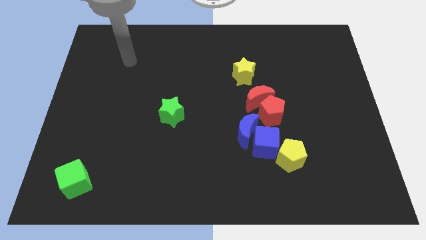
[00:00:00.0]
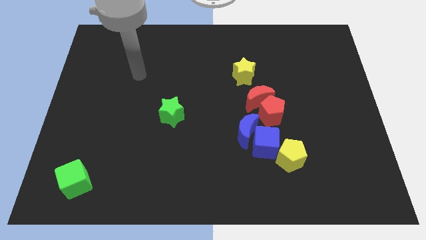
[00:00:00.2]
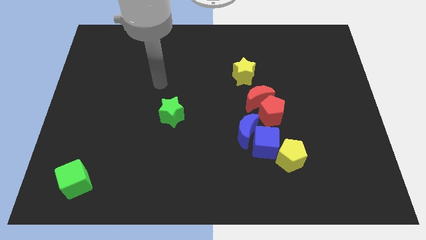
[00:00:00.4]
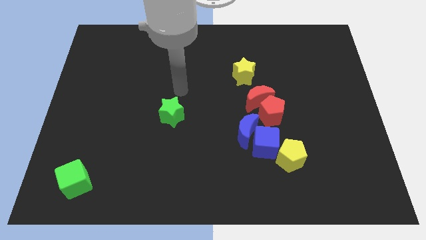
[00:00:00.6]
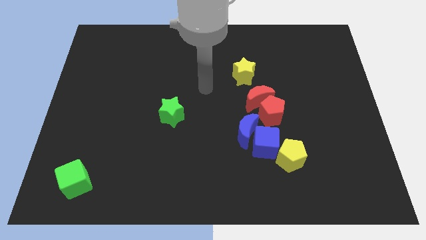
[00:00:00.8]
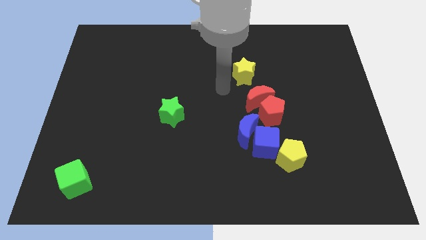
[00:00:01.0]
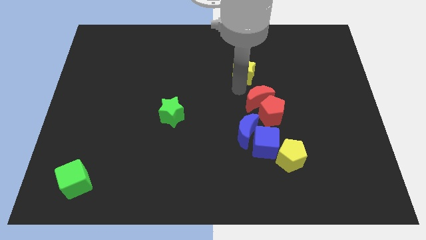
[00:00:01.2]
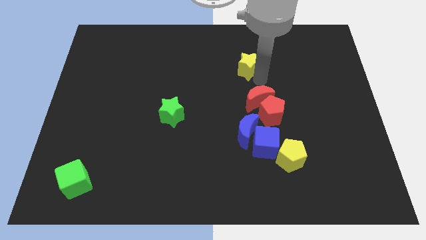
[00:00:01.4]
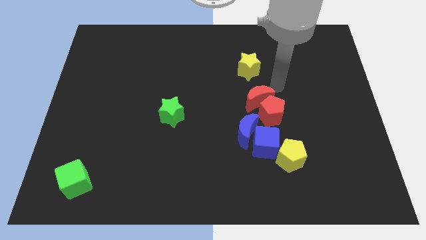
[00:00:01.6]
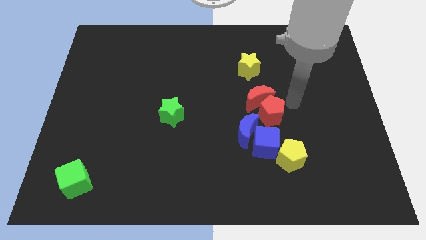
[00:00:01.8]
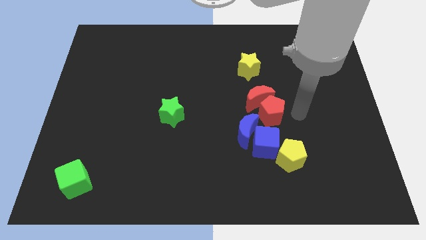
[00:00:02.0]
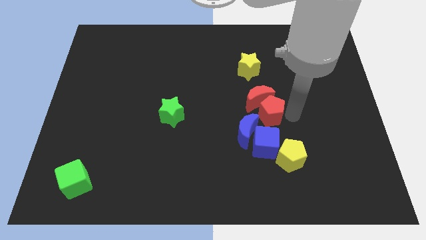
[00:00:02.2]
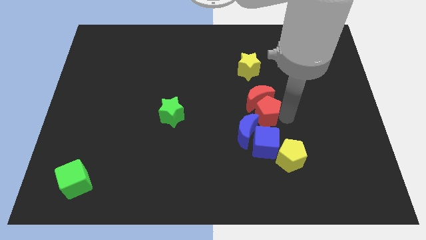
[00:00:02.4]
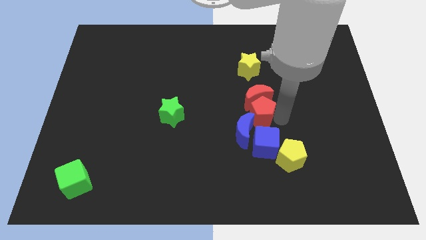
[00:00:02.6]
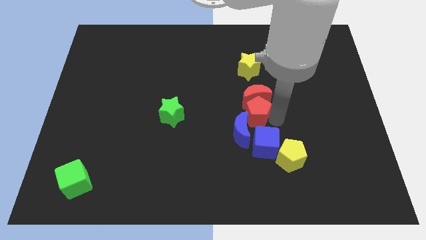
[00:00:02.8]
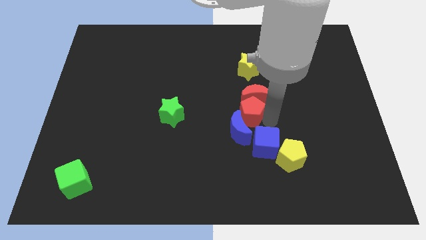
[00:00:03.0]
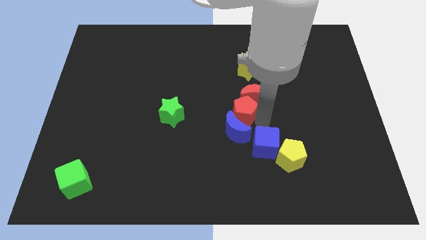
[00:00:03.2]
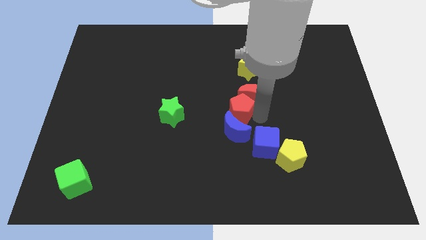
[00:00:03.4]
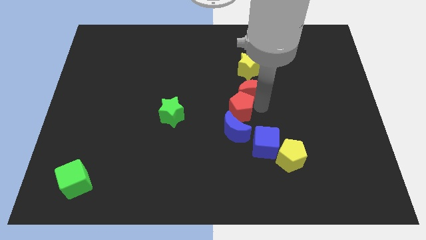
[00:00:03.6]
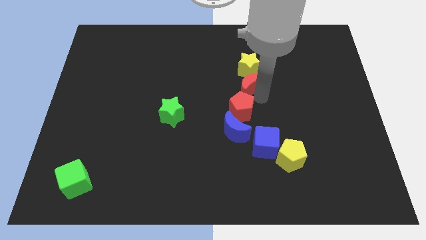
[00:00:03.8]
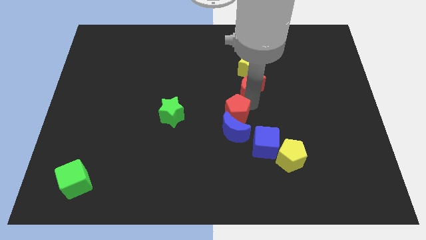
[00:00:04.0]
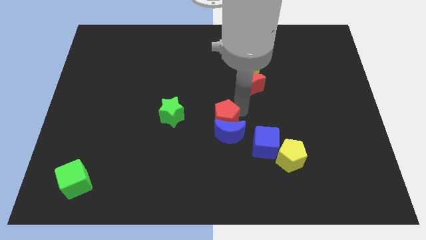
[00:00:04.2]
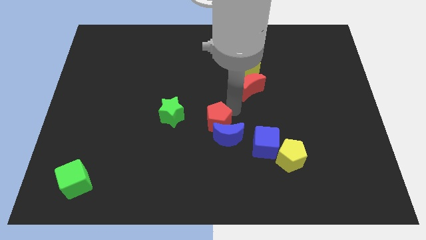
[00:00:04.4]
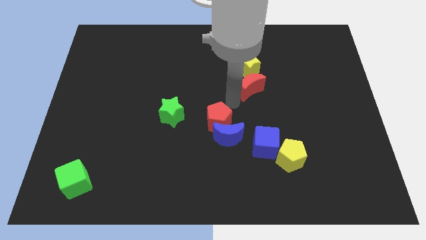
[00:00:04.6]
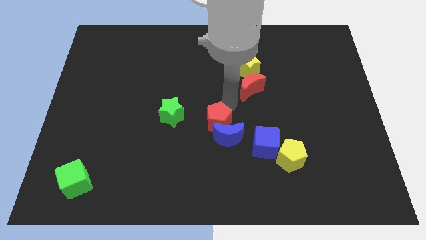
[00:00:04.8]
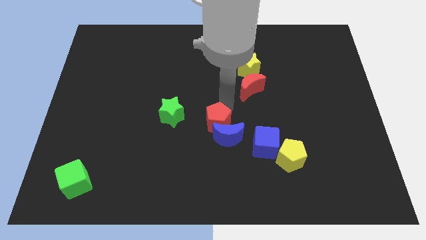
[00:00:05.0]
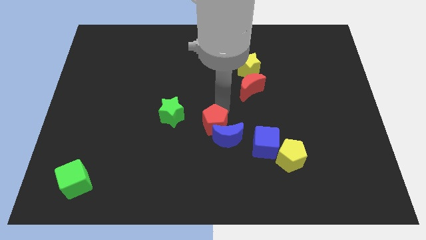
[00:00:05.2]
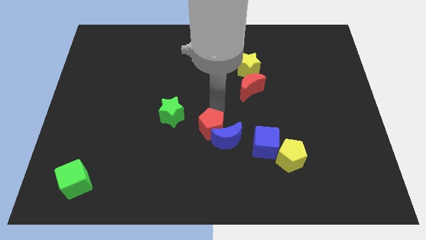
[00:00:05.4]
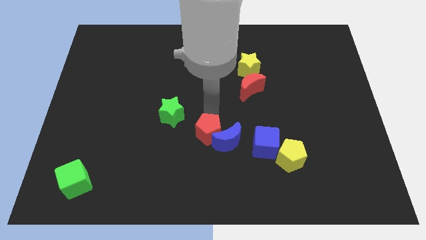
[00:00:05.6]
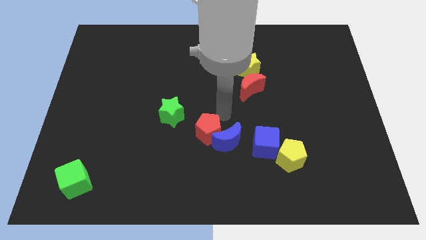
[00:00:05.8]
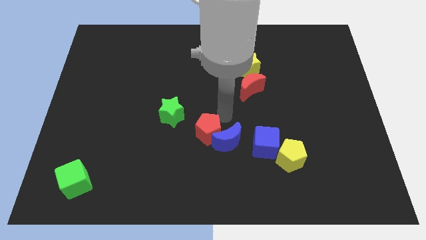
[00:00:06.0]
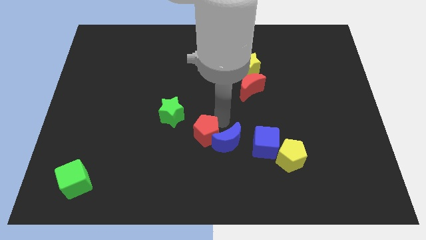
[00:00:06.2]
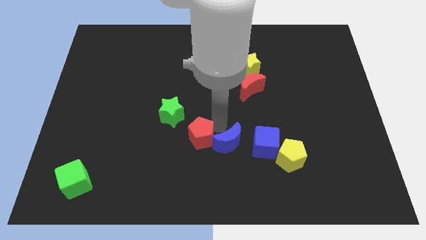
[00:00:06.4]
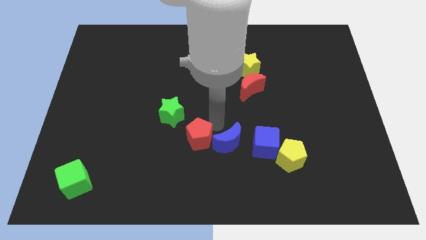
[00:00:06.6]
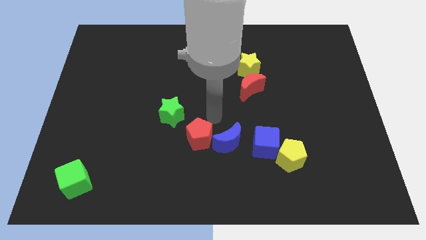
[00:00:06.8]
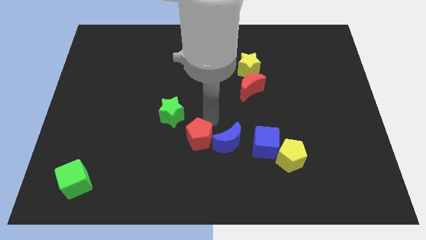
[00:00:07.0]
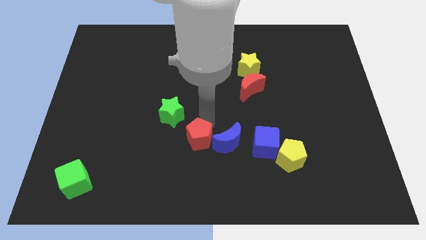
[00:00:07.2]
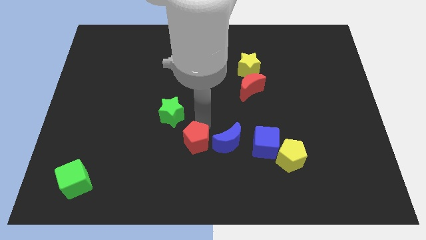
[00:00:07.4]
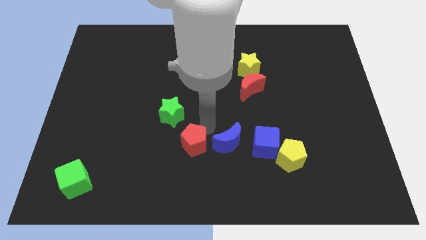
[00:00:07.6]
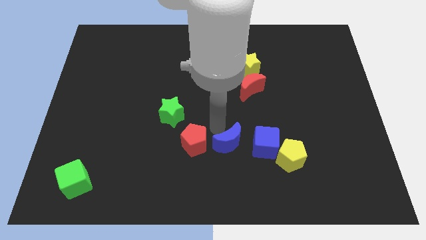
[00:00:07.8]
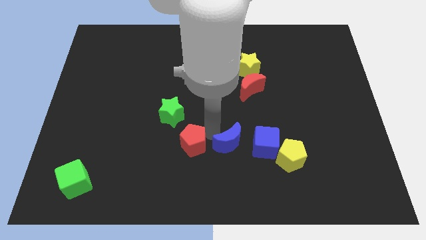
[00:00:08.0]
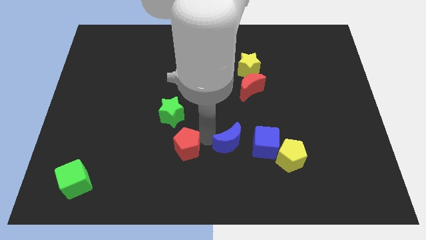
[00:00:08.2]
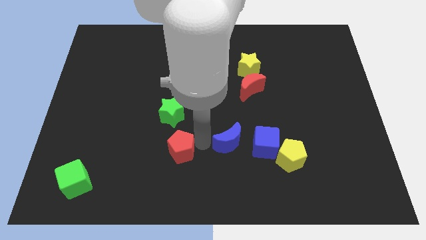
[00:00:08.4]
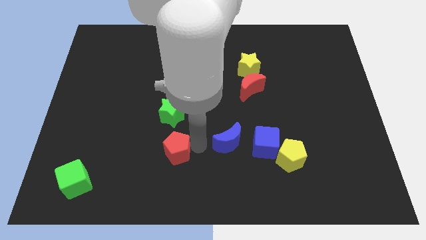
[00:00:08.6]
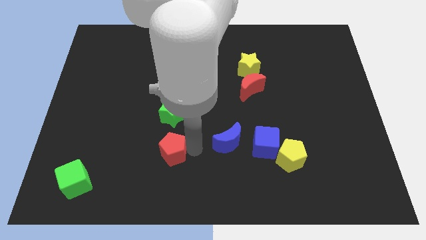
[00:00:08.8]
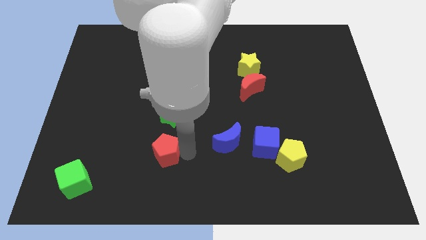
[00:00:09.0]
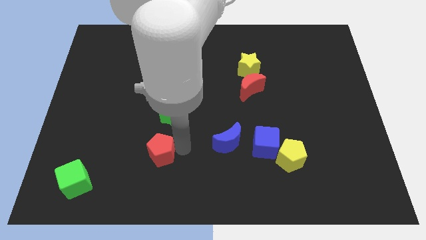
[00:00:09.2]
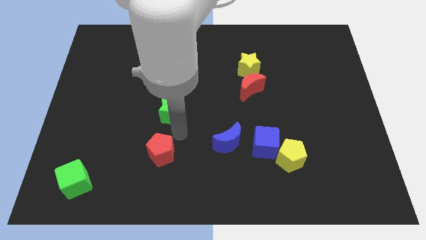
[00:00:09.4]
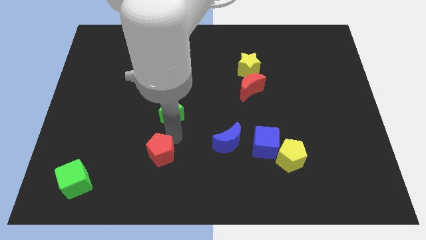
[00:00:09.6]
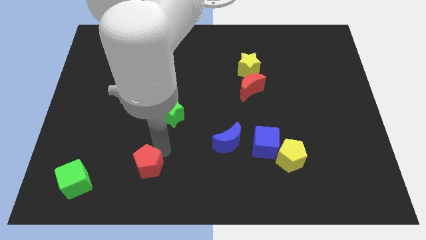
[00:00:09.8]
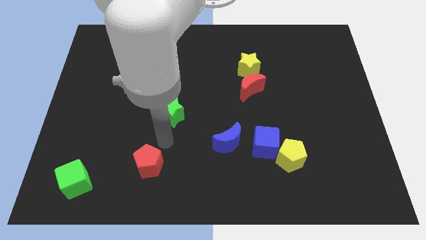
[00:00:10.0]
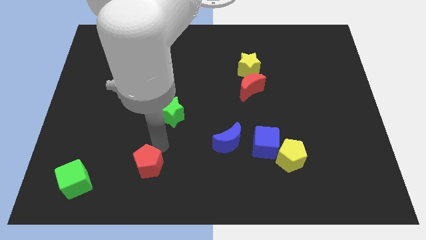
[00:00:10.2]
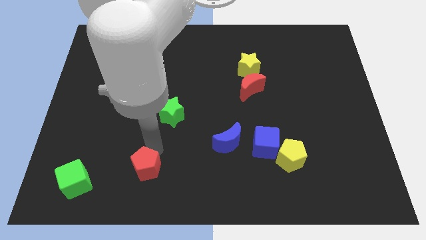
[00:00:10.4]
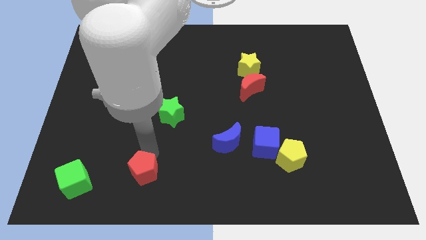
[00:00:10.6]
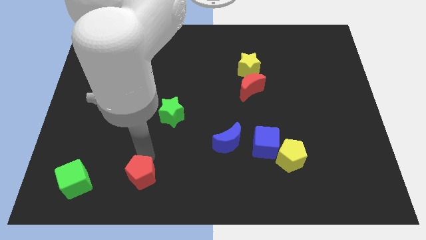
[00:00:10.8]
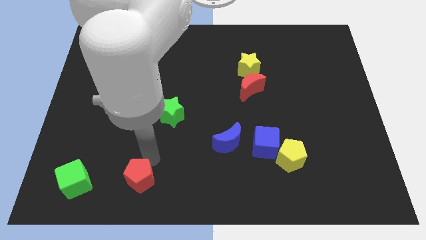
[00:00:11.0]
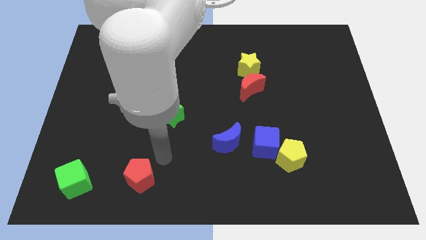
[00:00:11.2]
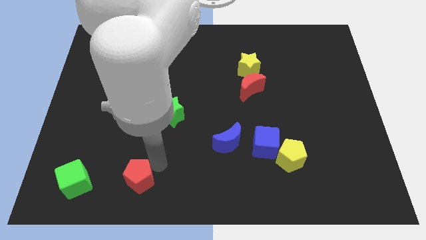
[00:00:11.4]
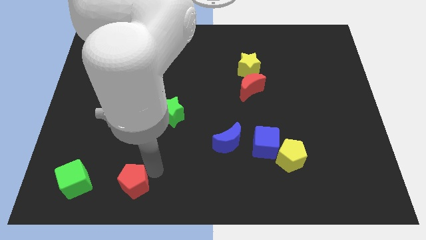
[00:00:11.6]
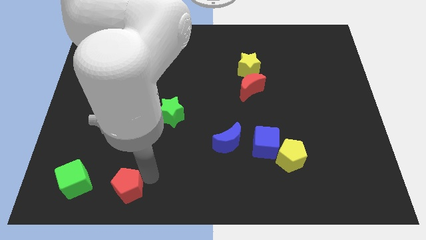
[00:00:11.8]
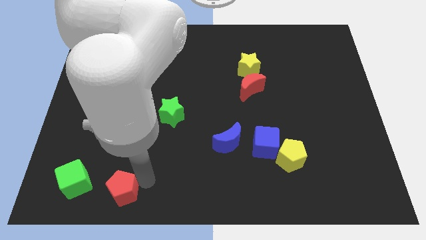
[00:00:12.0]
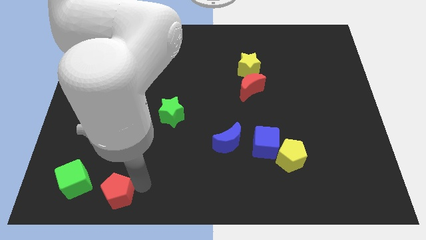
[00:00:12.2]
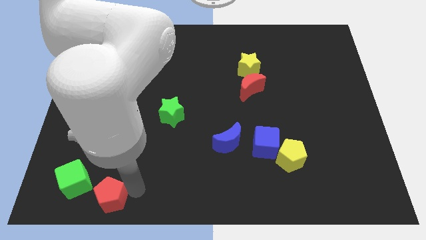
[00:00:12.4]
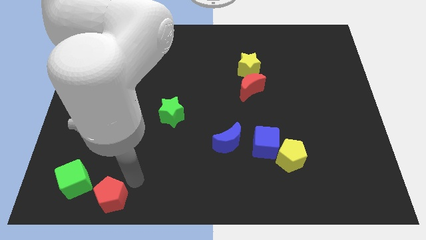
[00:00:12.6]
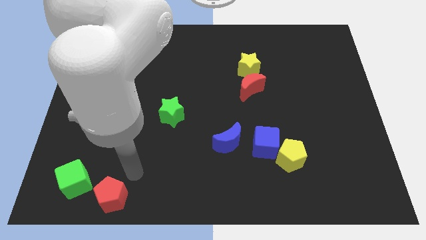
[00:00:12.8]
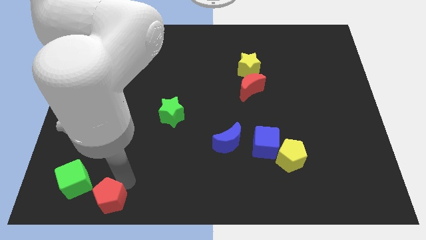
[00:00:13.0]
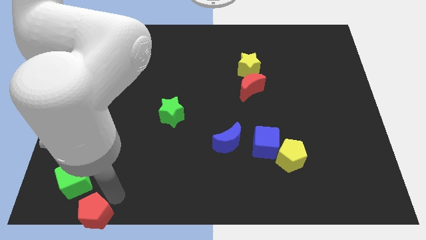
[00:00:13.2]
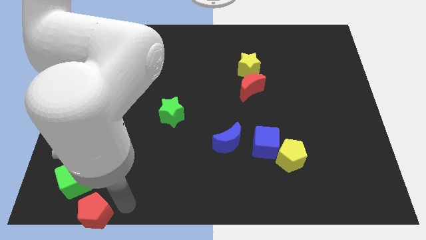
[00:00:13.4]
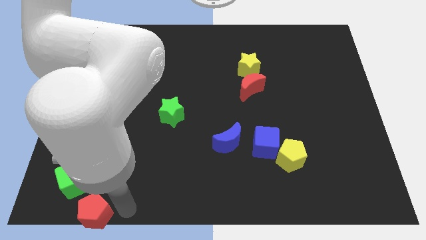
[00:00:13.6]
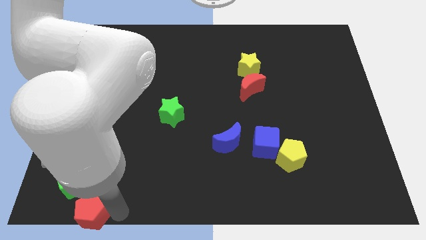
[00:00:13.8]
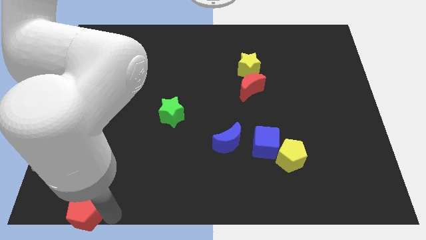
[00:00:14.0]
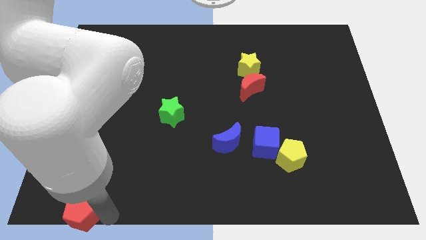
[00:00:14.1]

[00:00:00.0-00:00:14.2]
move the red pentagon to the lower left corner
